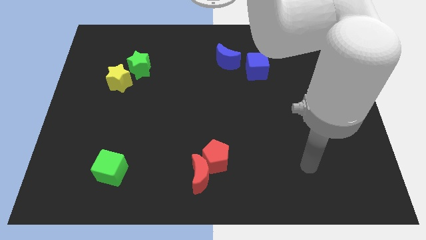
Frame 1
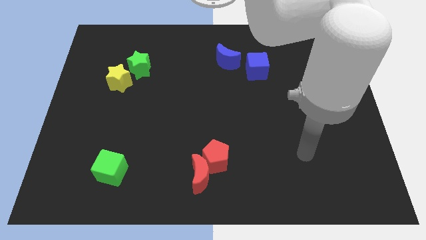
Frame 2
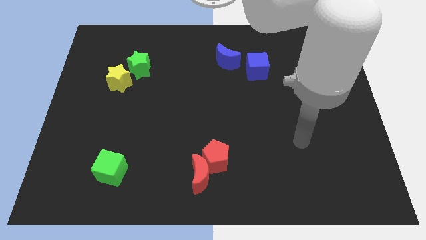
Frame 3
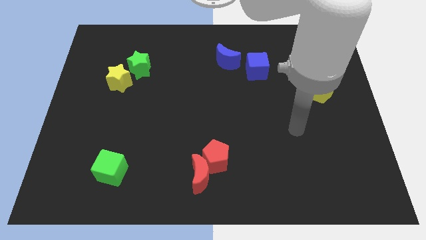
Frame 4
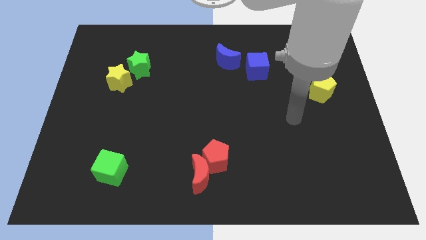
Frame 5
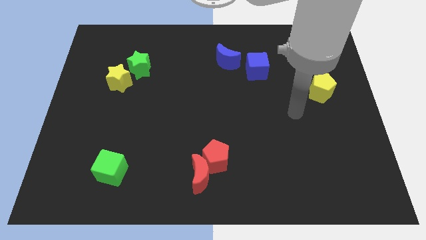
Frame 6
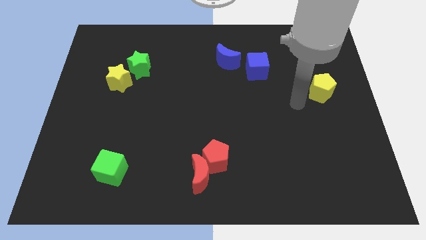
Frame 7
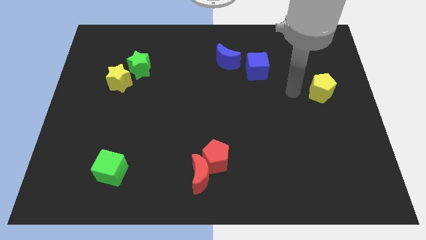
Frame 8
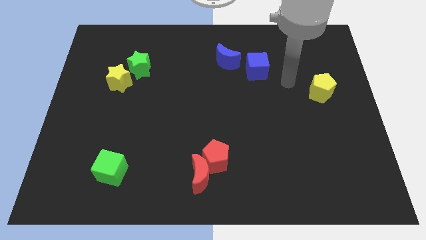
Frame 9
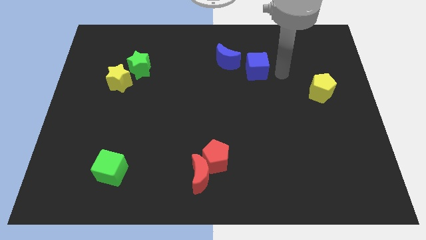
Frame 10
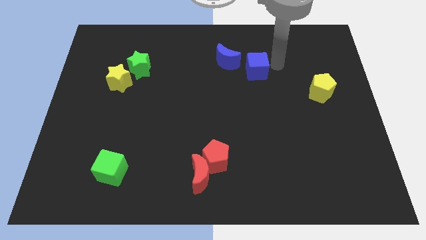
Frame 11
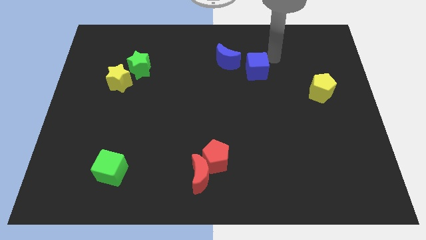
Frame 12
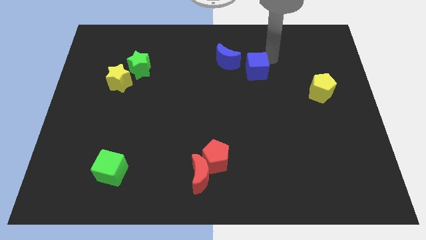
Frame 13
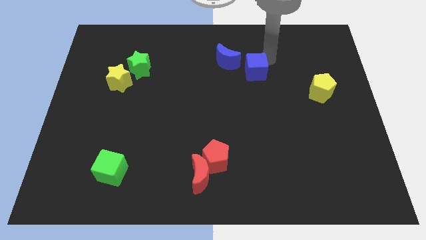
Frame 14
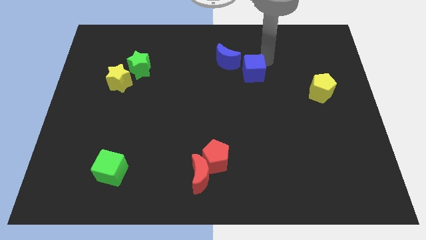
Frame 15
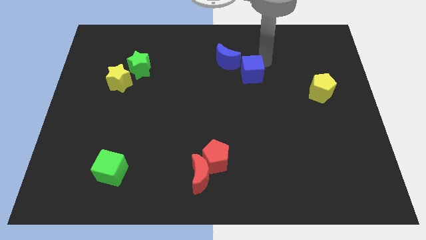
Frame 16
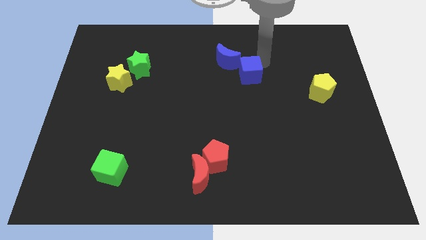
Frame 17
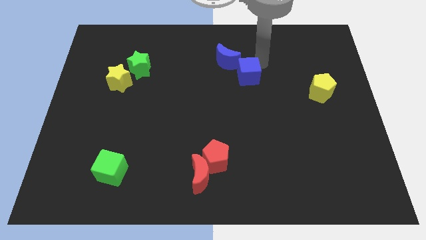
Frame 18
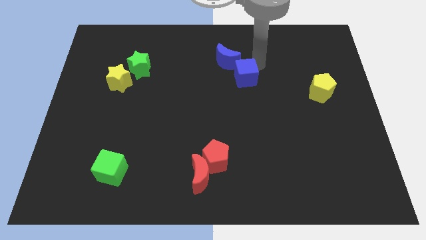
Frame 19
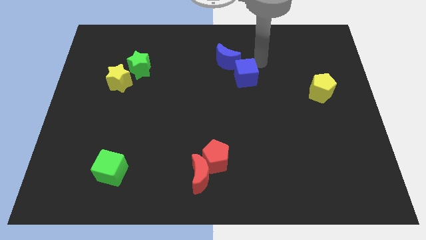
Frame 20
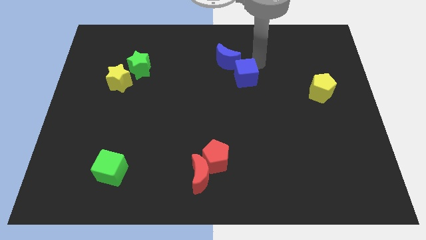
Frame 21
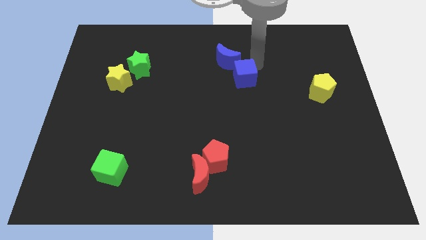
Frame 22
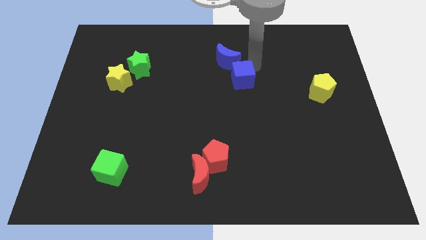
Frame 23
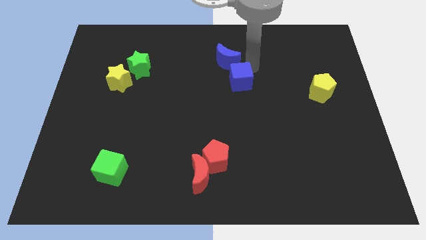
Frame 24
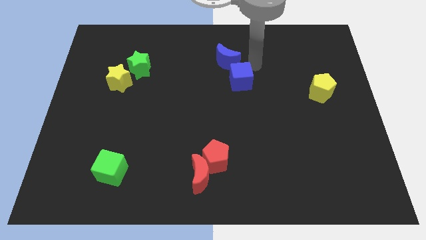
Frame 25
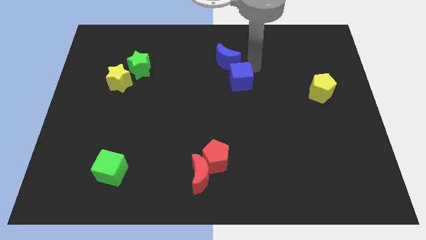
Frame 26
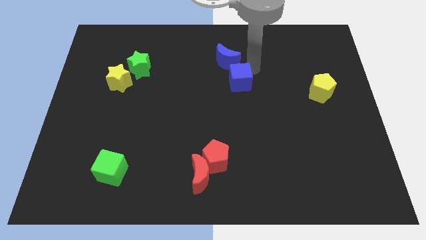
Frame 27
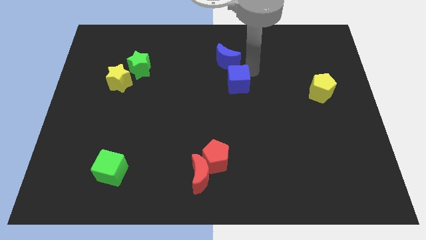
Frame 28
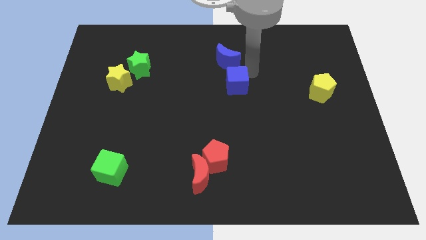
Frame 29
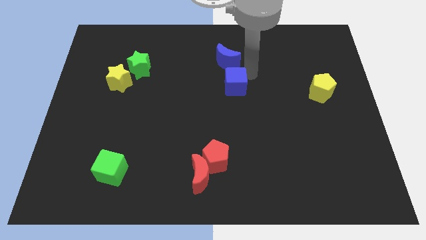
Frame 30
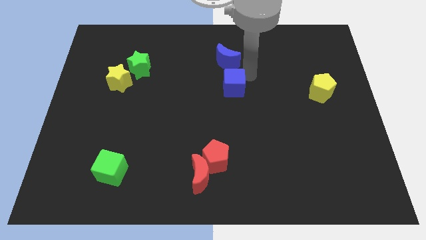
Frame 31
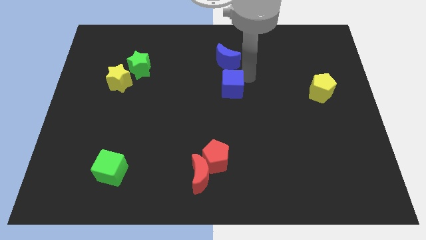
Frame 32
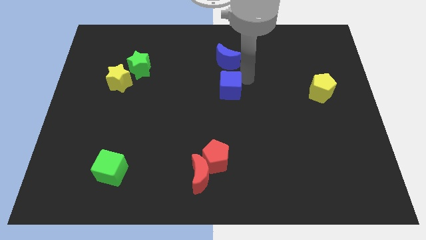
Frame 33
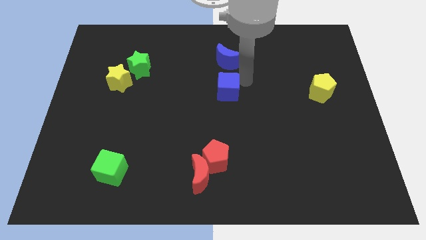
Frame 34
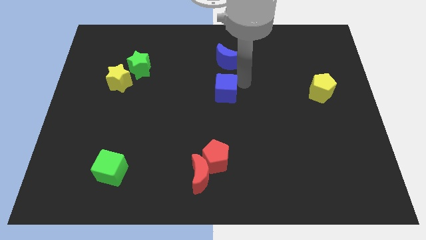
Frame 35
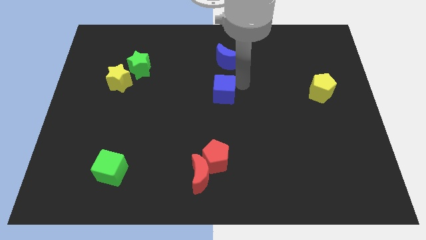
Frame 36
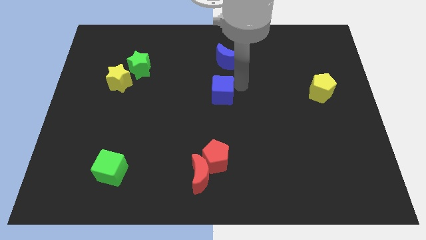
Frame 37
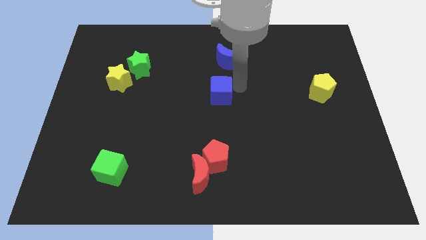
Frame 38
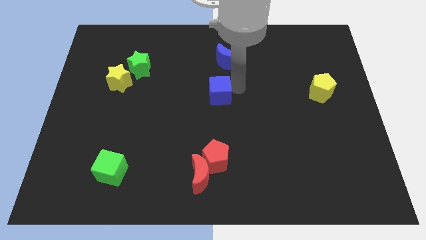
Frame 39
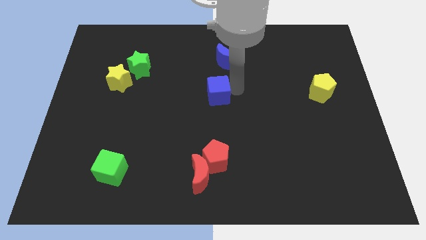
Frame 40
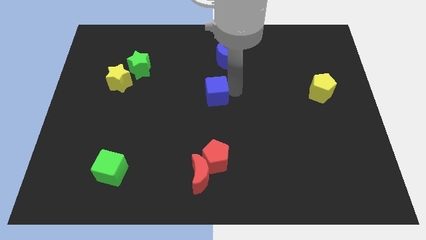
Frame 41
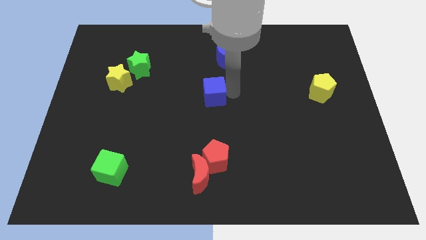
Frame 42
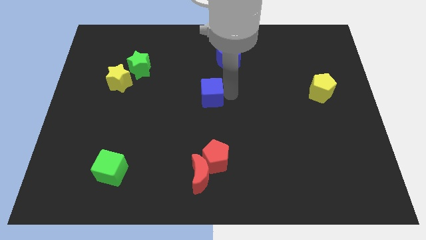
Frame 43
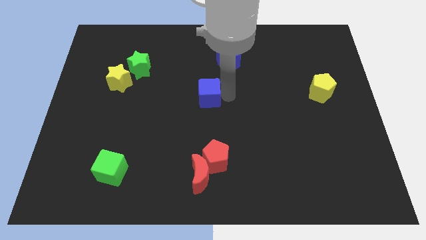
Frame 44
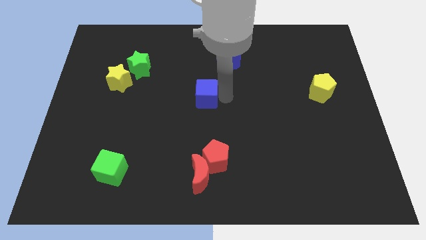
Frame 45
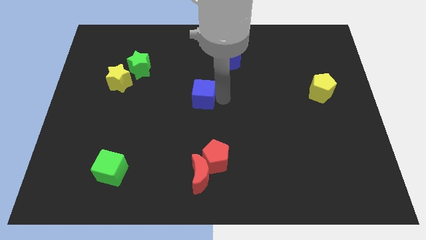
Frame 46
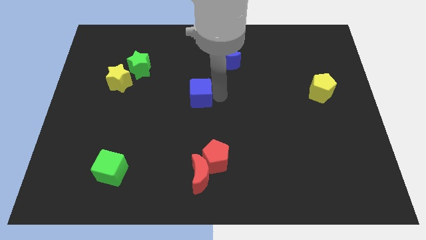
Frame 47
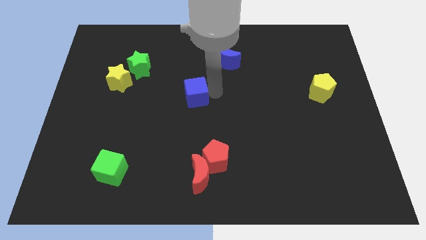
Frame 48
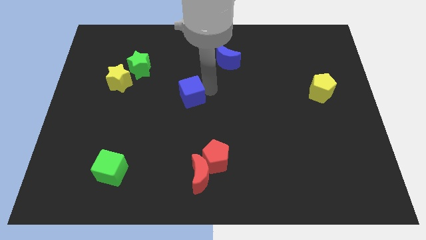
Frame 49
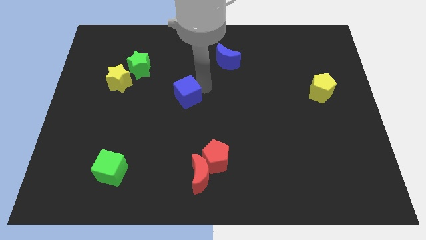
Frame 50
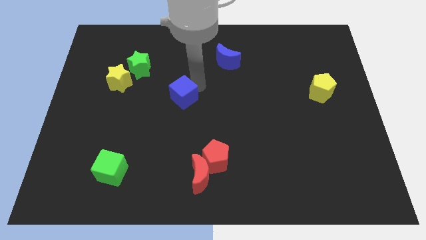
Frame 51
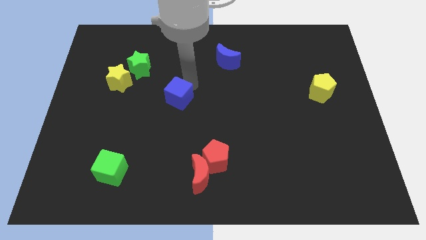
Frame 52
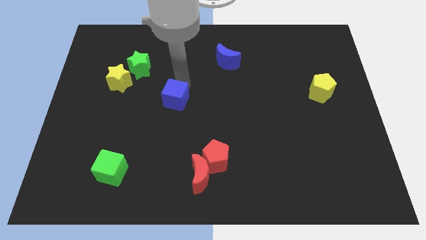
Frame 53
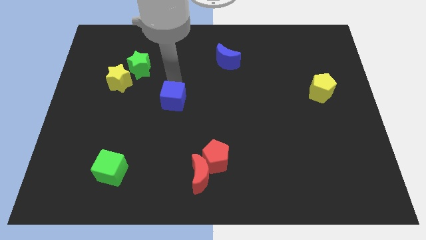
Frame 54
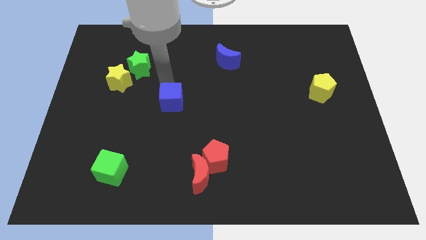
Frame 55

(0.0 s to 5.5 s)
push the blue cube down and then to the left

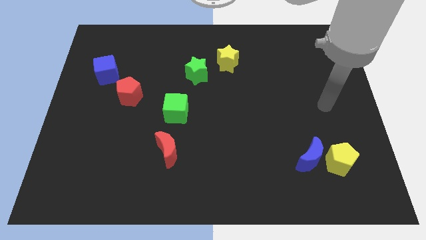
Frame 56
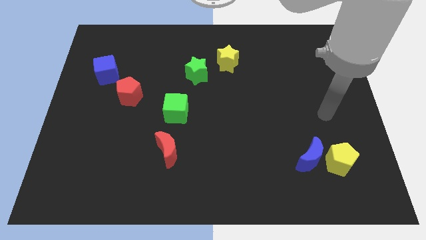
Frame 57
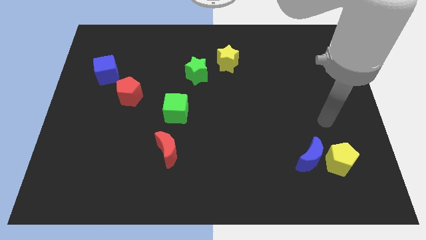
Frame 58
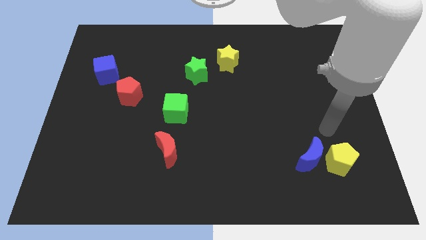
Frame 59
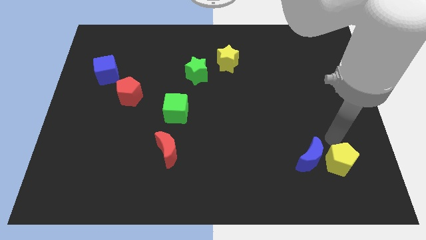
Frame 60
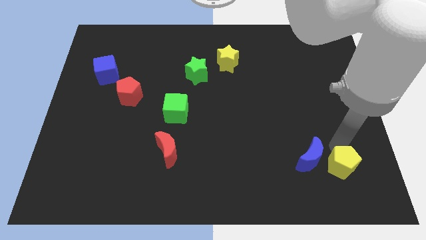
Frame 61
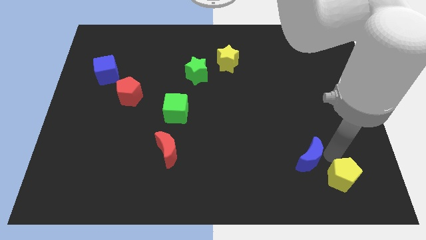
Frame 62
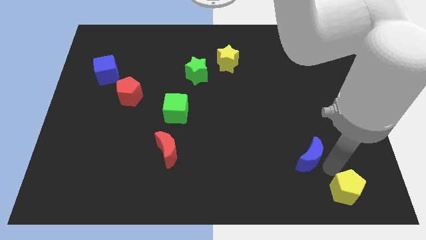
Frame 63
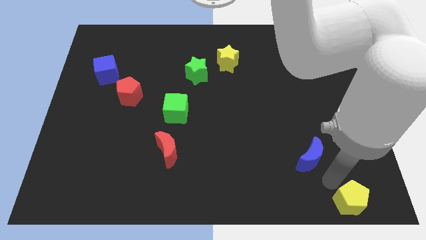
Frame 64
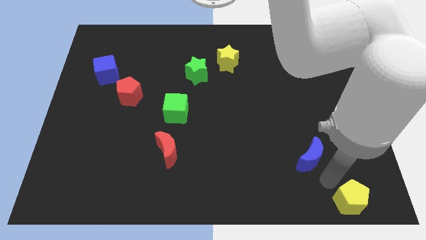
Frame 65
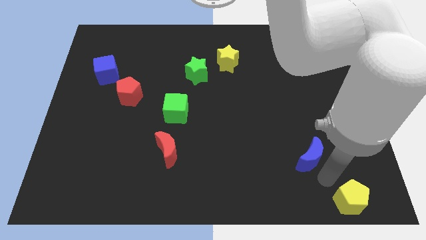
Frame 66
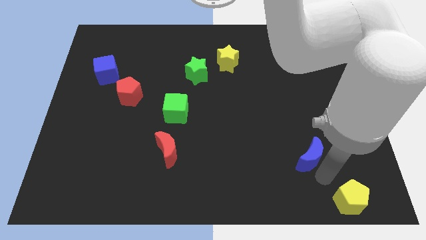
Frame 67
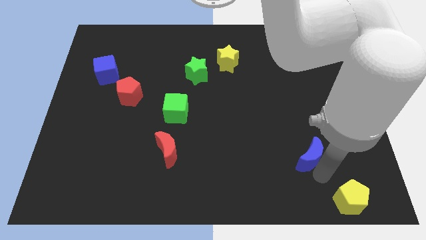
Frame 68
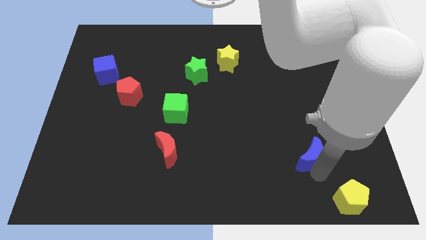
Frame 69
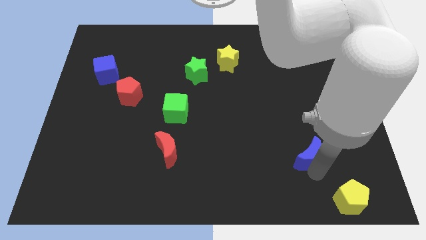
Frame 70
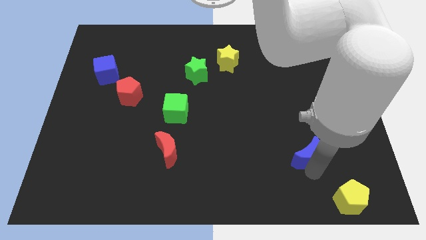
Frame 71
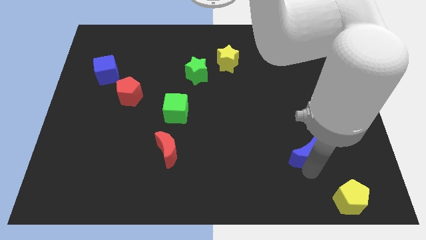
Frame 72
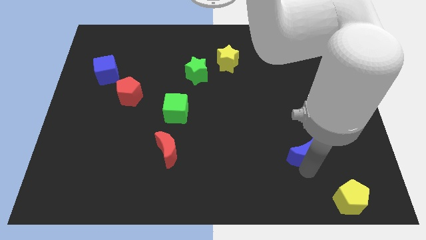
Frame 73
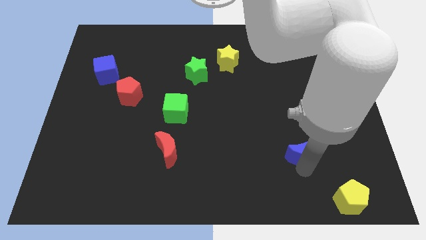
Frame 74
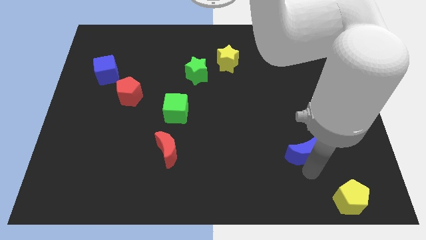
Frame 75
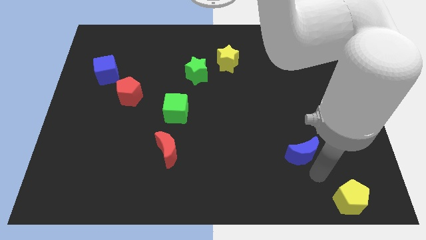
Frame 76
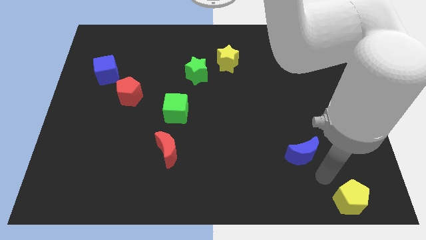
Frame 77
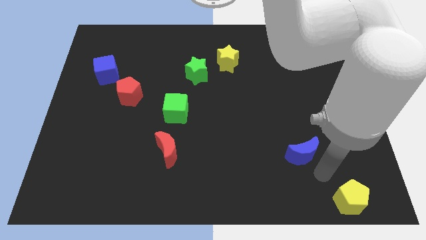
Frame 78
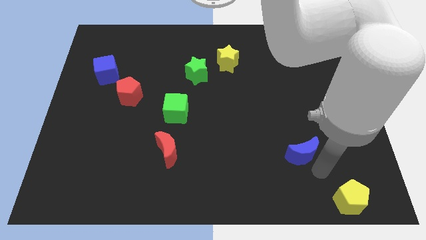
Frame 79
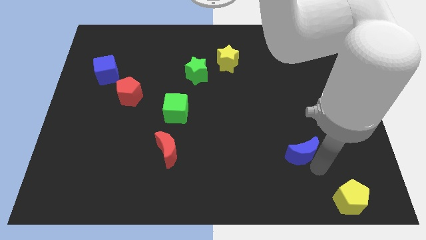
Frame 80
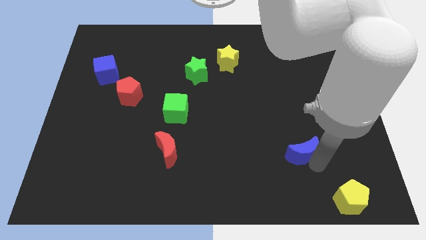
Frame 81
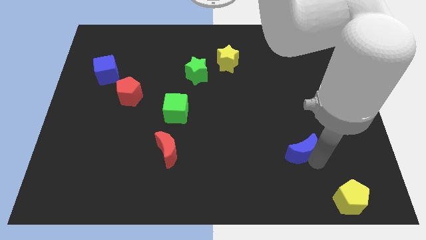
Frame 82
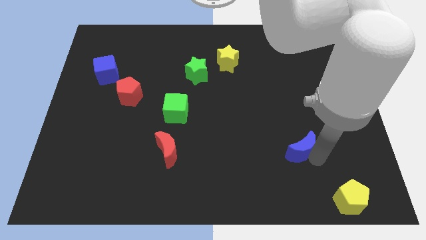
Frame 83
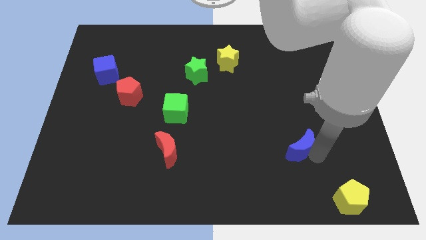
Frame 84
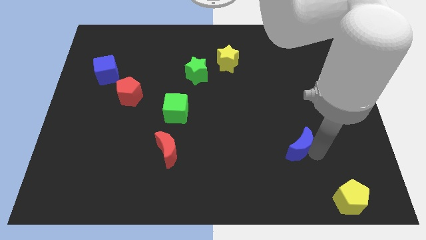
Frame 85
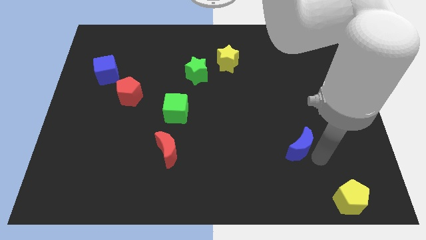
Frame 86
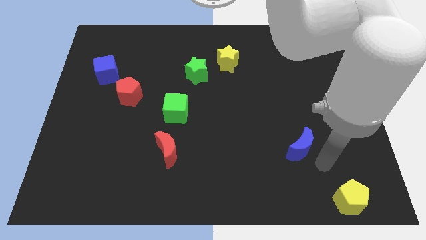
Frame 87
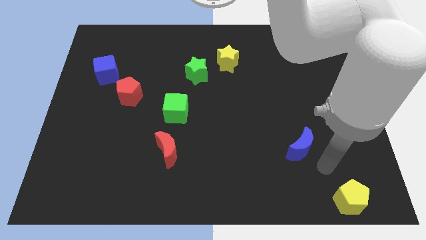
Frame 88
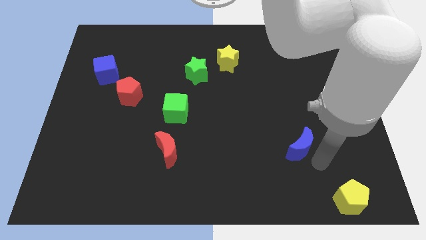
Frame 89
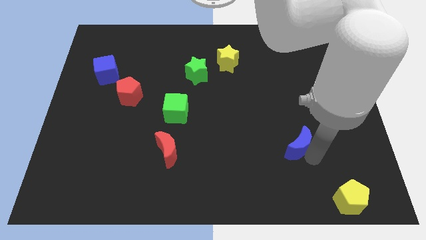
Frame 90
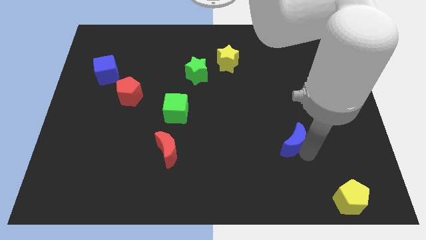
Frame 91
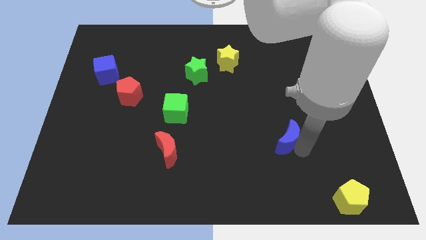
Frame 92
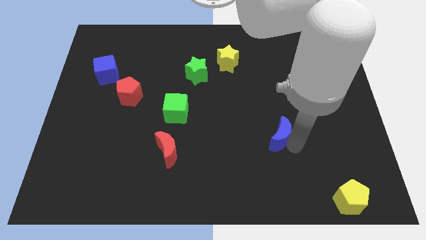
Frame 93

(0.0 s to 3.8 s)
slide the blue moon somewhat up and then to the left
